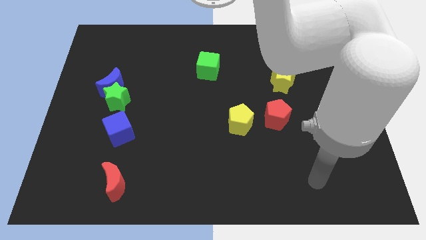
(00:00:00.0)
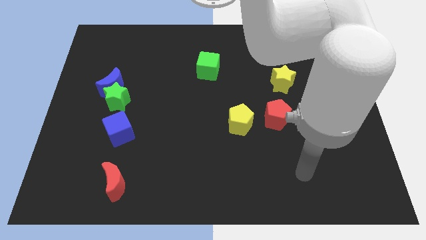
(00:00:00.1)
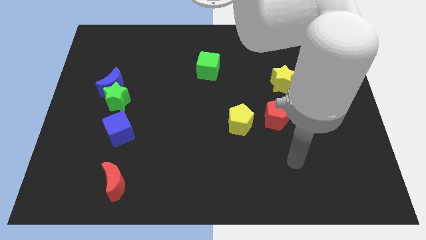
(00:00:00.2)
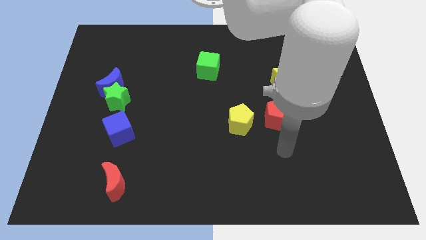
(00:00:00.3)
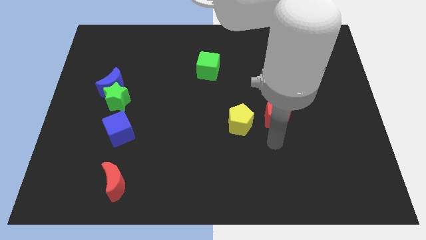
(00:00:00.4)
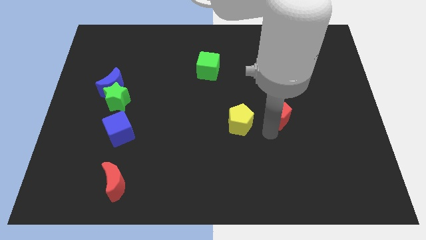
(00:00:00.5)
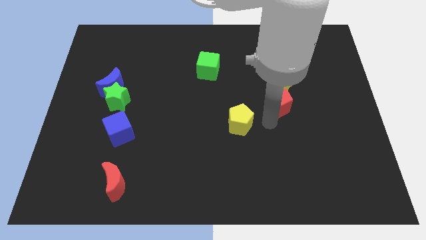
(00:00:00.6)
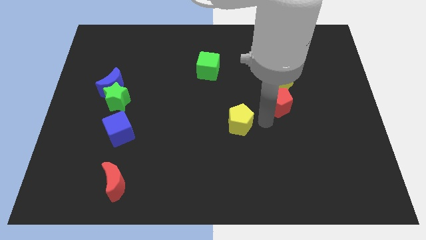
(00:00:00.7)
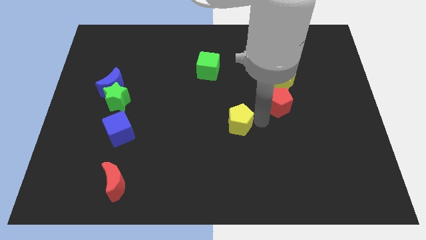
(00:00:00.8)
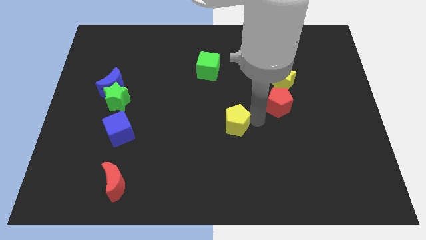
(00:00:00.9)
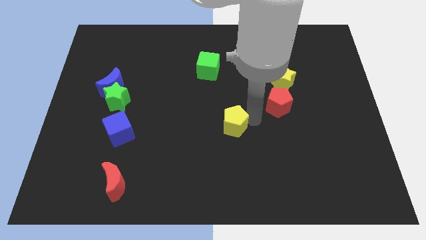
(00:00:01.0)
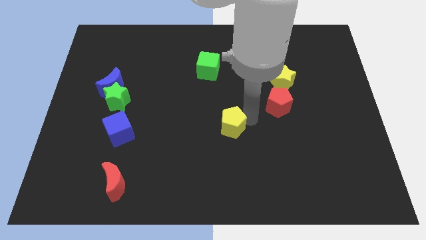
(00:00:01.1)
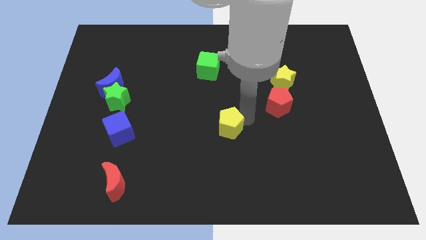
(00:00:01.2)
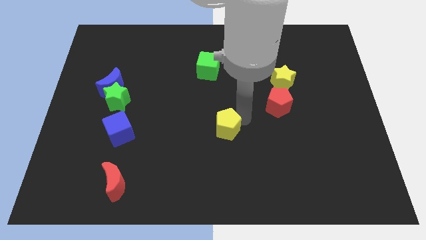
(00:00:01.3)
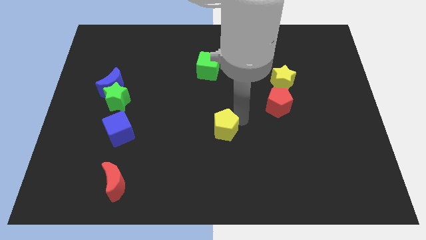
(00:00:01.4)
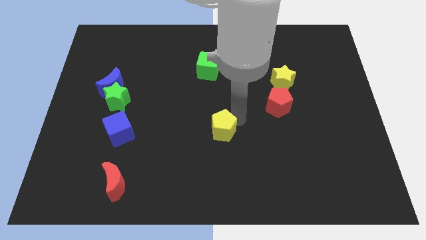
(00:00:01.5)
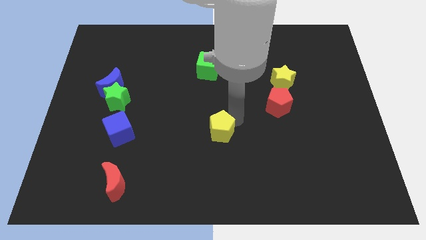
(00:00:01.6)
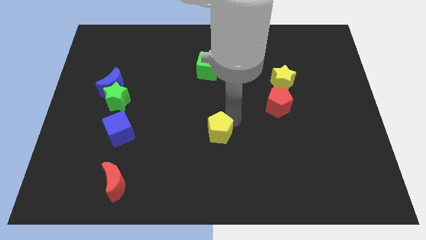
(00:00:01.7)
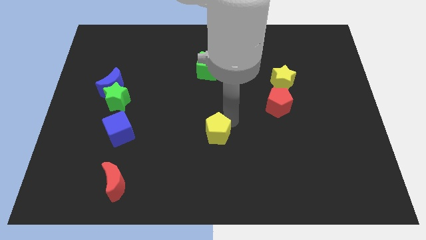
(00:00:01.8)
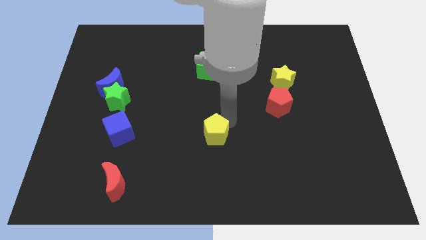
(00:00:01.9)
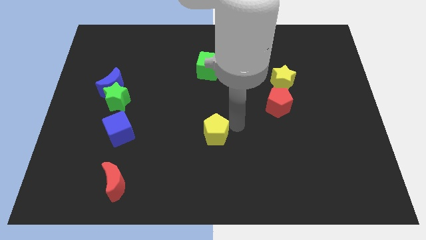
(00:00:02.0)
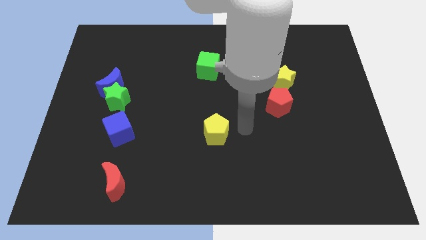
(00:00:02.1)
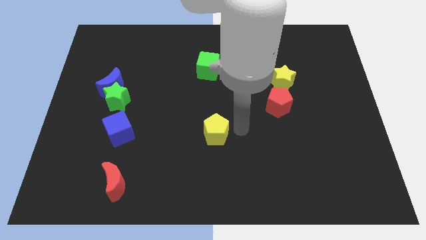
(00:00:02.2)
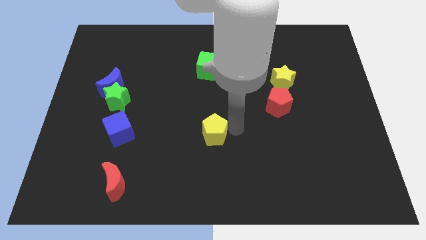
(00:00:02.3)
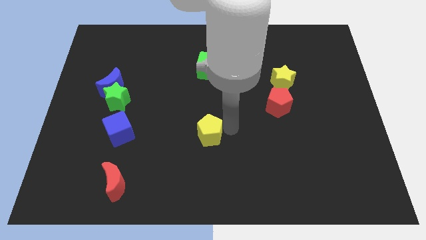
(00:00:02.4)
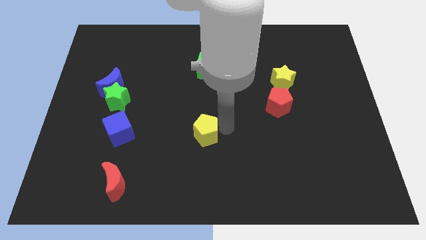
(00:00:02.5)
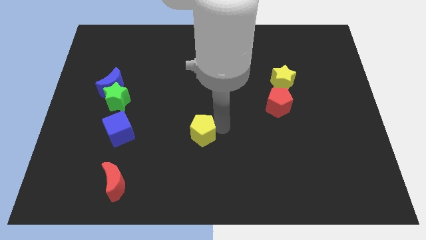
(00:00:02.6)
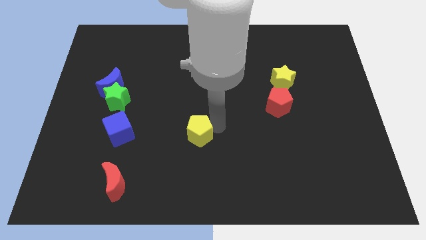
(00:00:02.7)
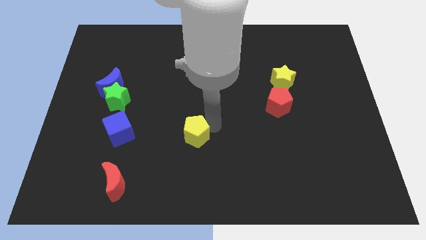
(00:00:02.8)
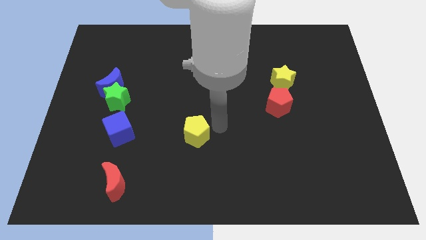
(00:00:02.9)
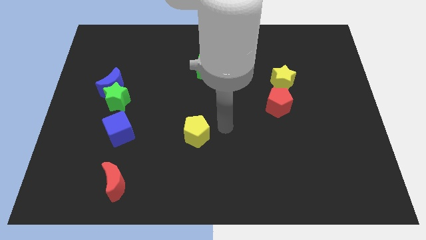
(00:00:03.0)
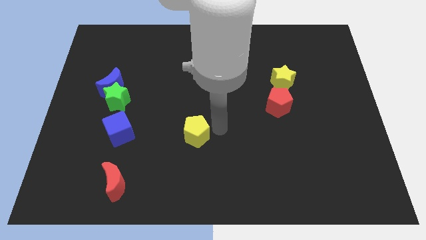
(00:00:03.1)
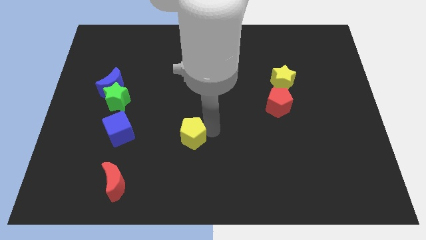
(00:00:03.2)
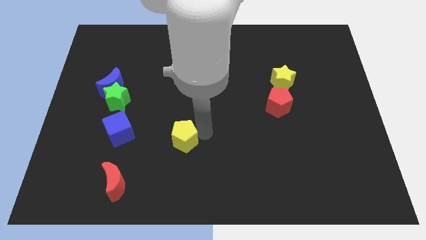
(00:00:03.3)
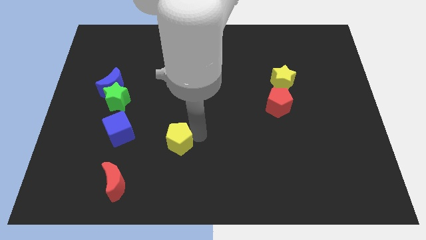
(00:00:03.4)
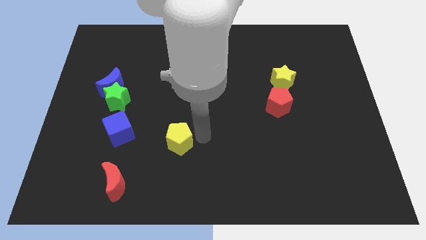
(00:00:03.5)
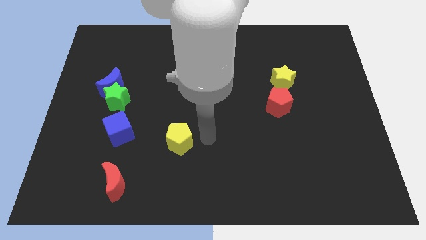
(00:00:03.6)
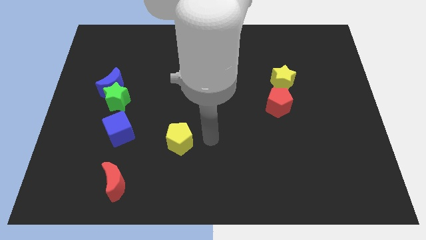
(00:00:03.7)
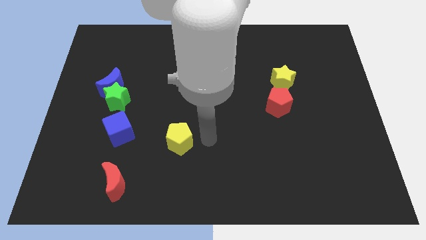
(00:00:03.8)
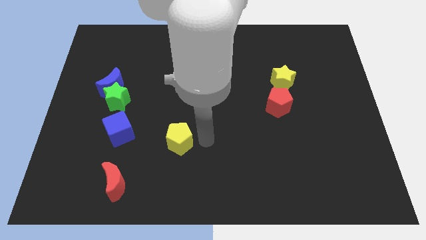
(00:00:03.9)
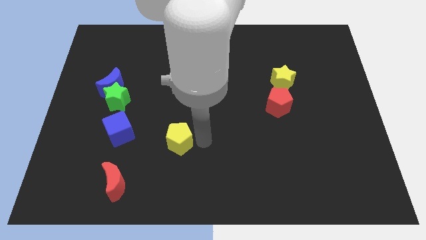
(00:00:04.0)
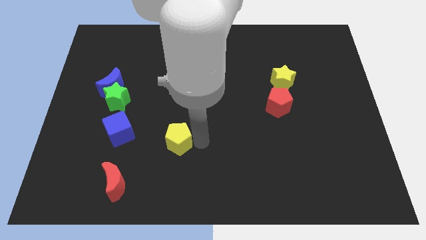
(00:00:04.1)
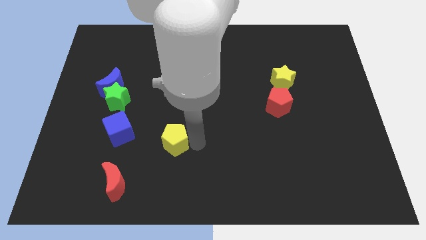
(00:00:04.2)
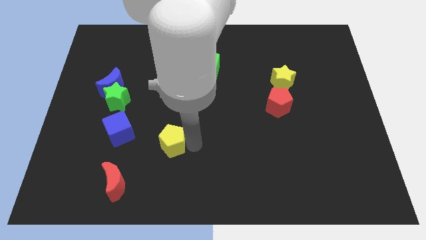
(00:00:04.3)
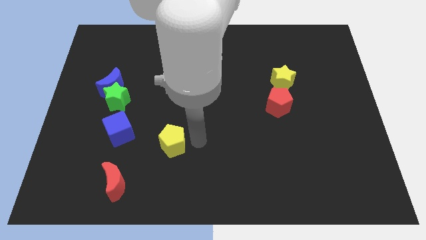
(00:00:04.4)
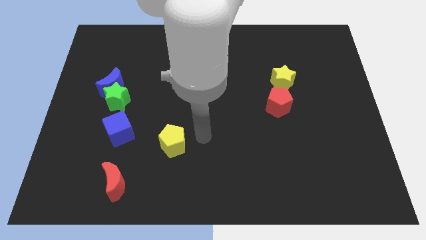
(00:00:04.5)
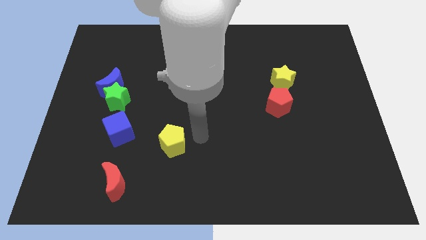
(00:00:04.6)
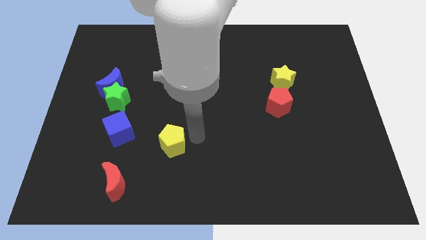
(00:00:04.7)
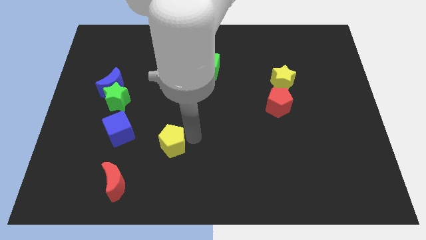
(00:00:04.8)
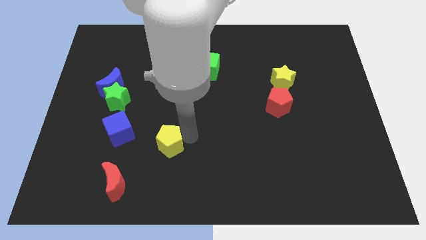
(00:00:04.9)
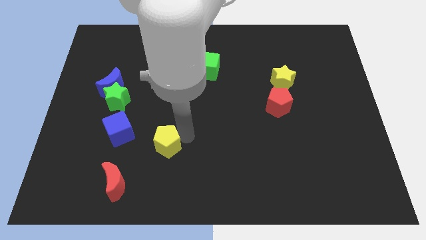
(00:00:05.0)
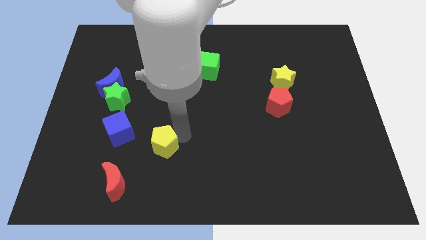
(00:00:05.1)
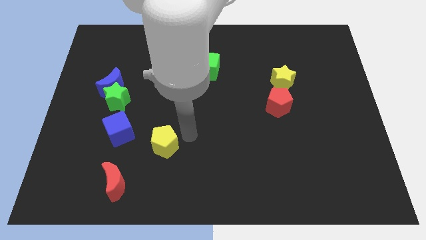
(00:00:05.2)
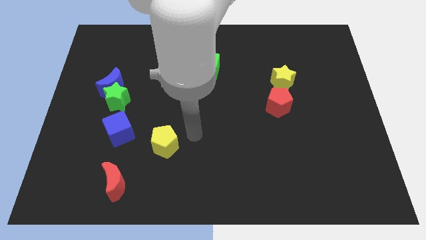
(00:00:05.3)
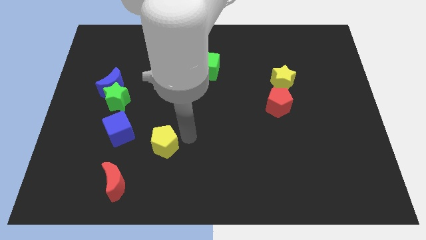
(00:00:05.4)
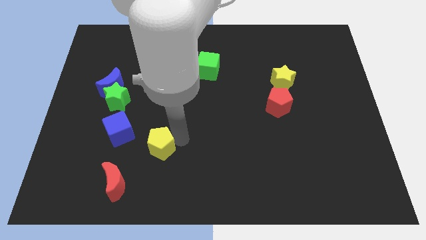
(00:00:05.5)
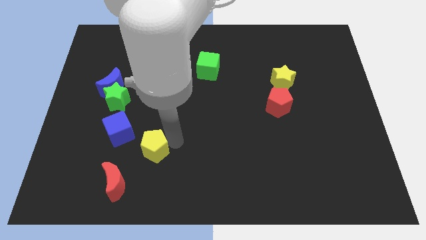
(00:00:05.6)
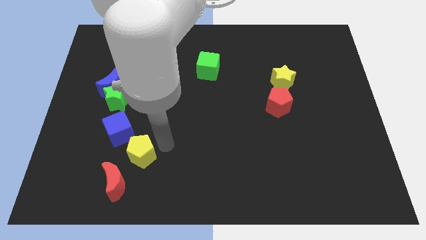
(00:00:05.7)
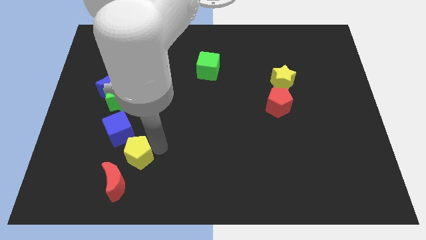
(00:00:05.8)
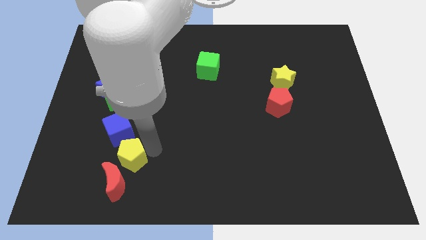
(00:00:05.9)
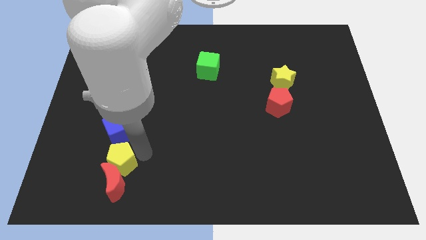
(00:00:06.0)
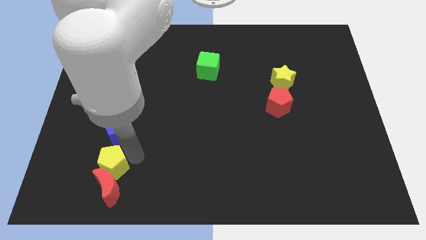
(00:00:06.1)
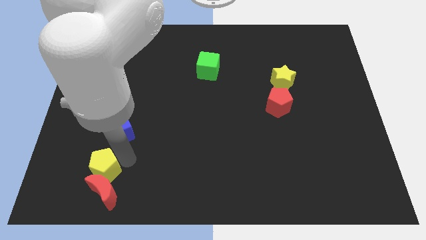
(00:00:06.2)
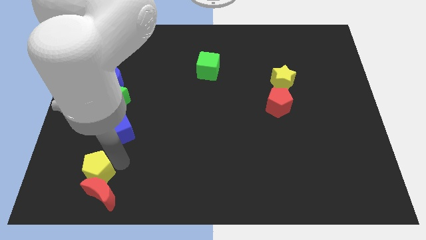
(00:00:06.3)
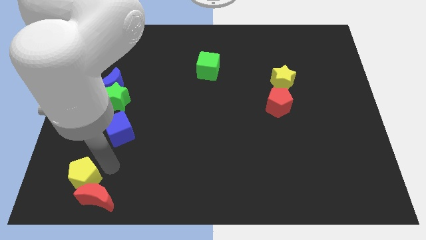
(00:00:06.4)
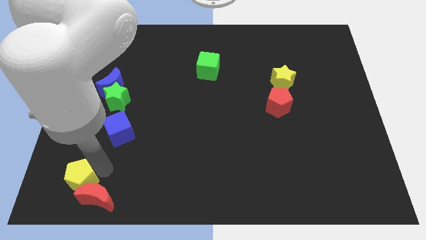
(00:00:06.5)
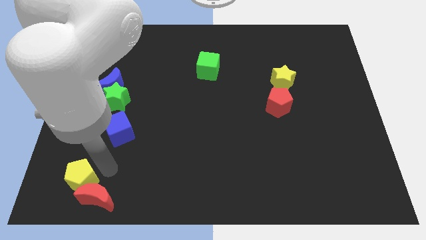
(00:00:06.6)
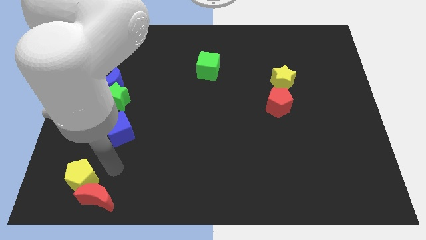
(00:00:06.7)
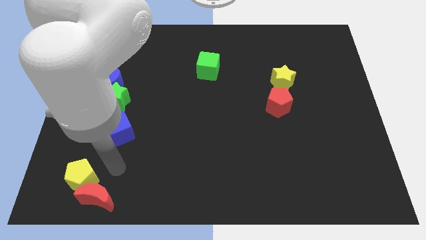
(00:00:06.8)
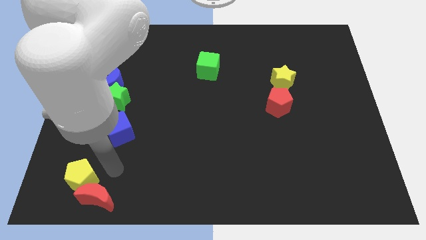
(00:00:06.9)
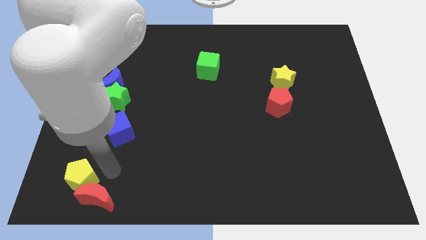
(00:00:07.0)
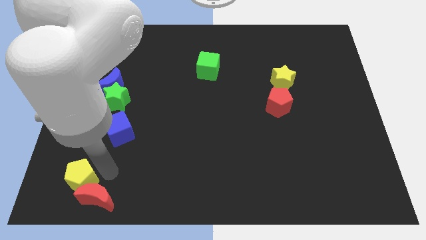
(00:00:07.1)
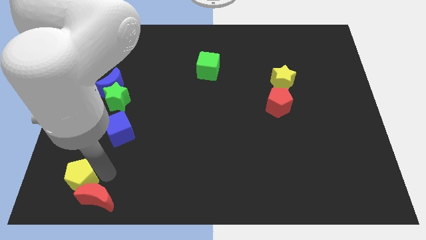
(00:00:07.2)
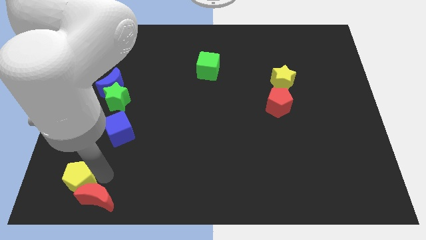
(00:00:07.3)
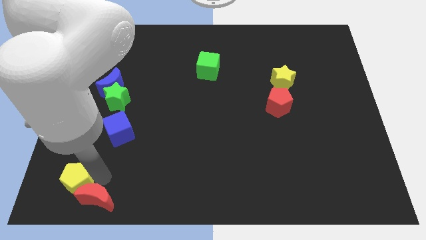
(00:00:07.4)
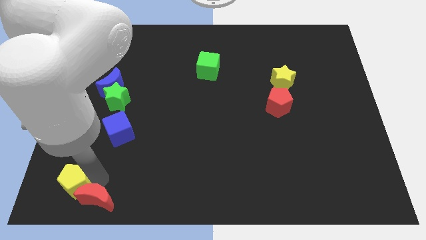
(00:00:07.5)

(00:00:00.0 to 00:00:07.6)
push the yellow pentagon to the lower left corner
